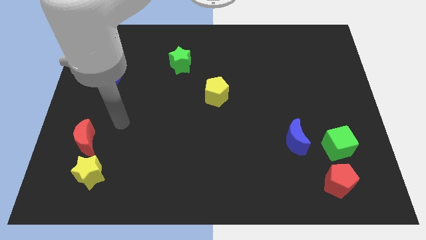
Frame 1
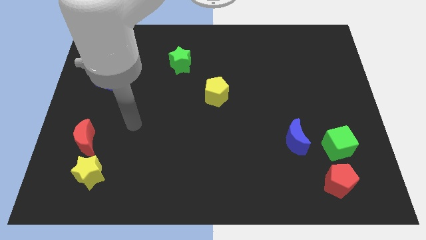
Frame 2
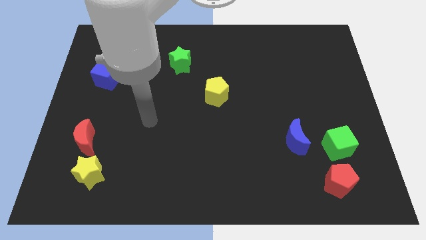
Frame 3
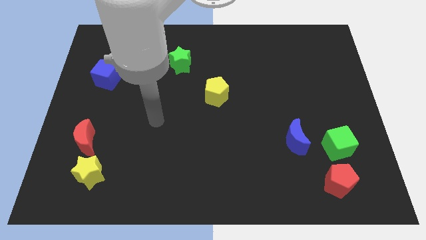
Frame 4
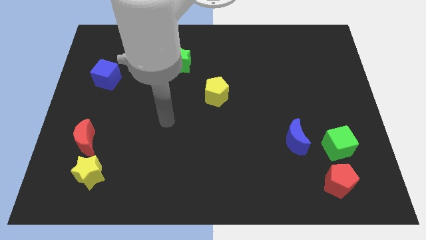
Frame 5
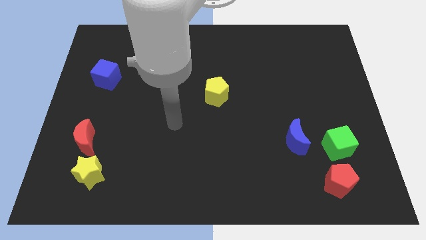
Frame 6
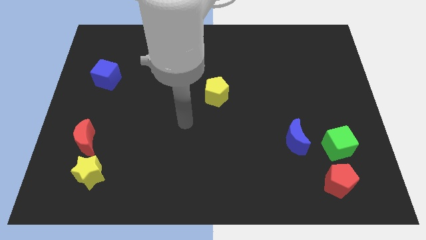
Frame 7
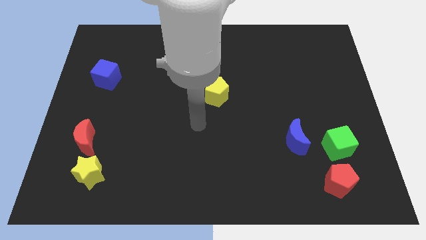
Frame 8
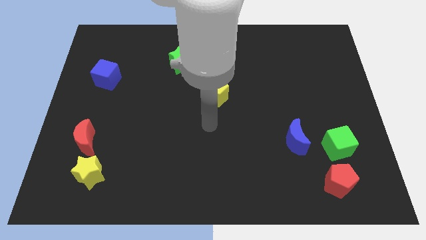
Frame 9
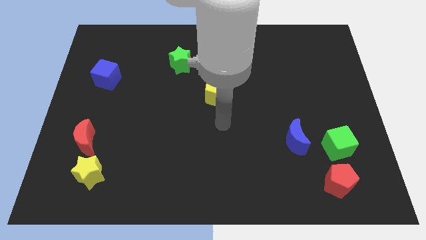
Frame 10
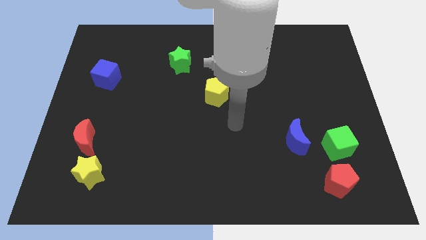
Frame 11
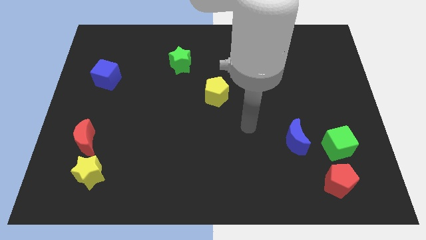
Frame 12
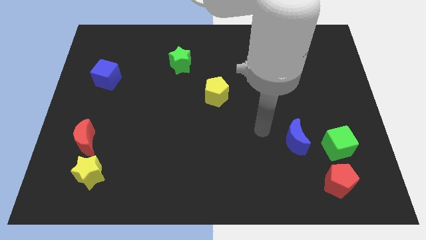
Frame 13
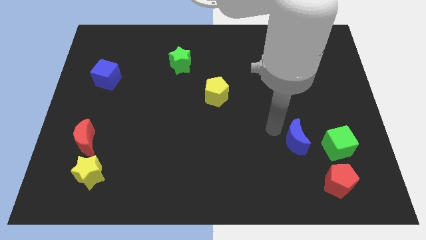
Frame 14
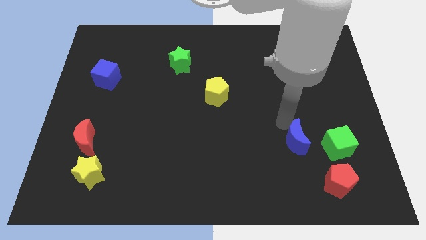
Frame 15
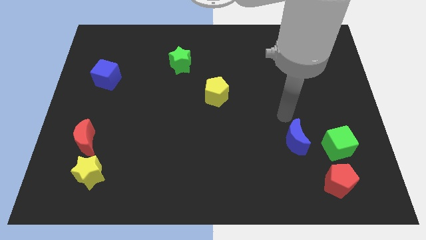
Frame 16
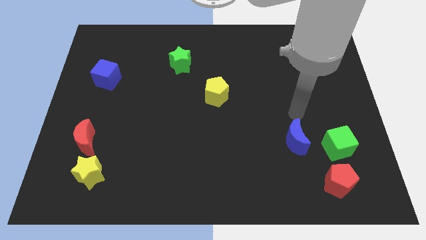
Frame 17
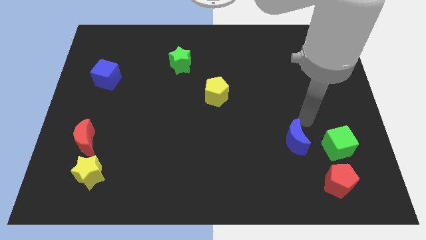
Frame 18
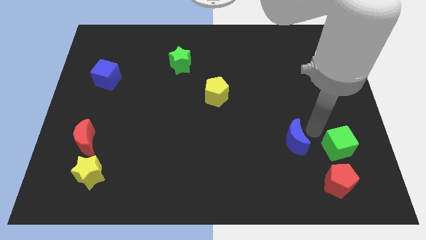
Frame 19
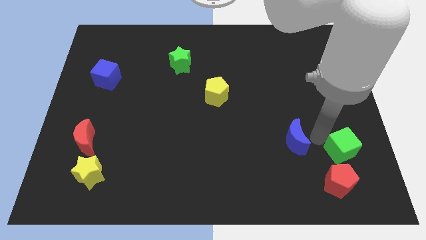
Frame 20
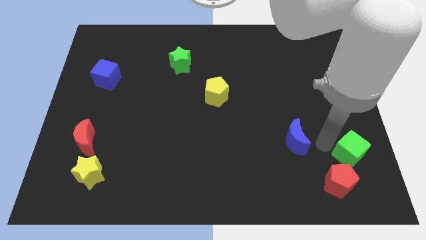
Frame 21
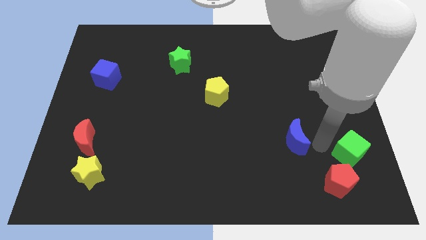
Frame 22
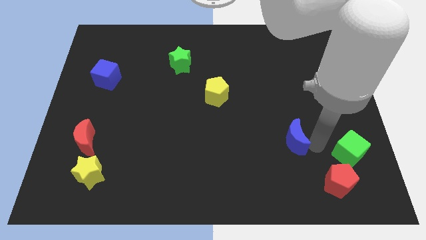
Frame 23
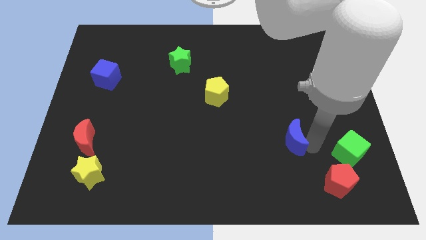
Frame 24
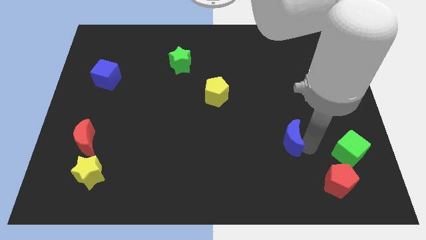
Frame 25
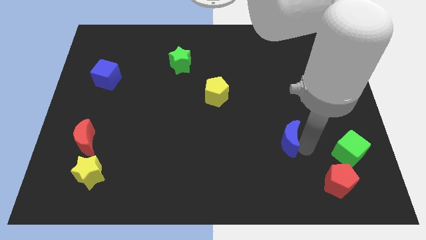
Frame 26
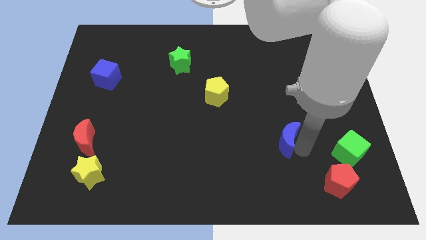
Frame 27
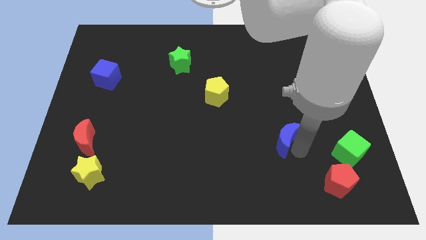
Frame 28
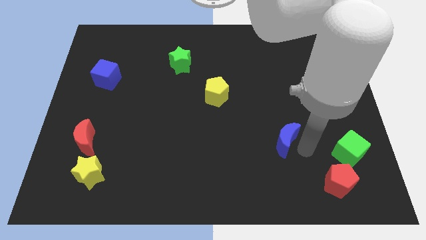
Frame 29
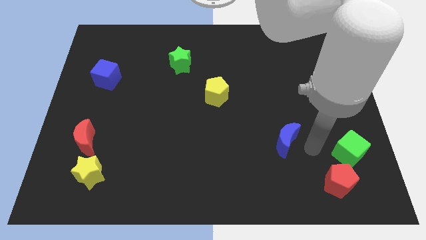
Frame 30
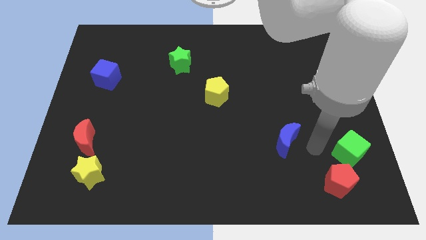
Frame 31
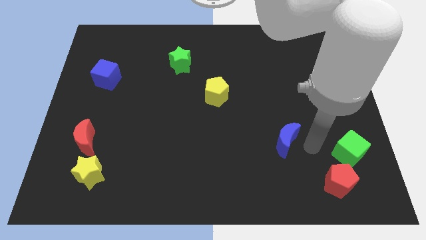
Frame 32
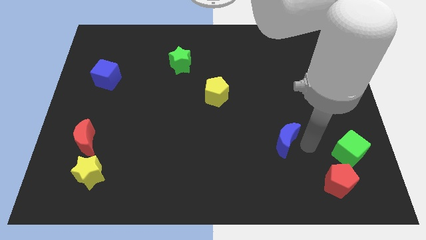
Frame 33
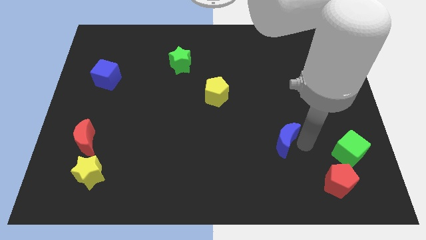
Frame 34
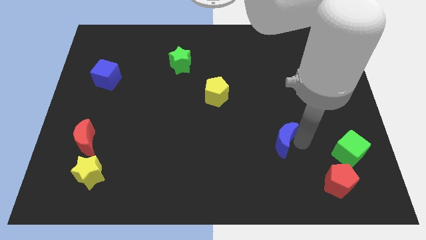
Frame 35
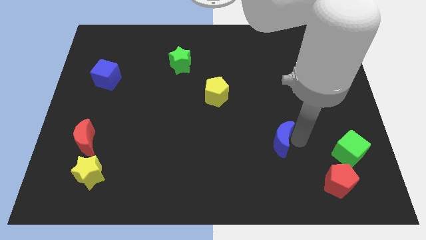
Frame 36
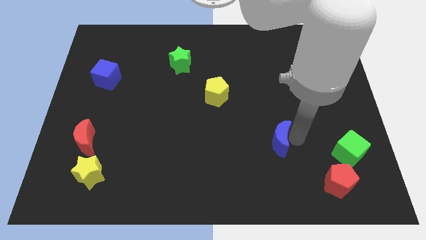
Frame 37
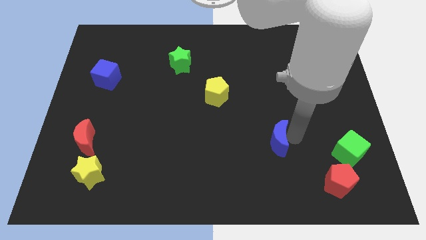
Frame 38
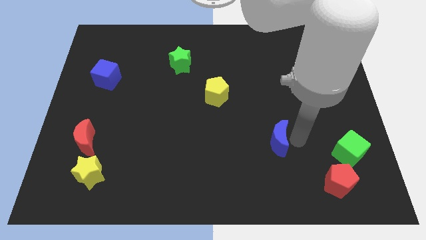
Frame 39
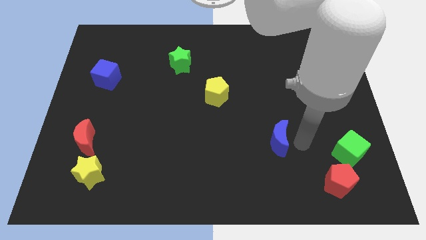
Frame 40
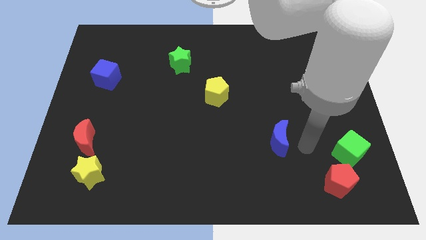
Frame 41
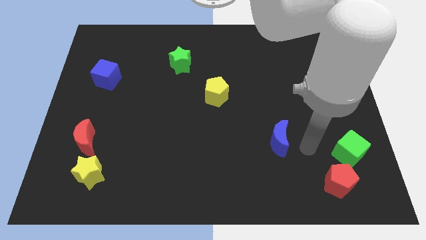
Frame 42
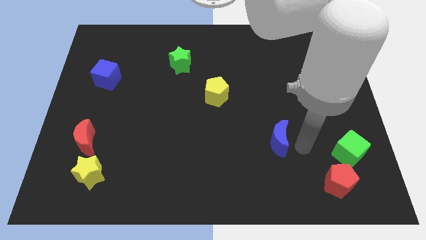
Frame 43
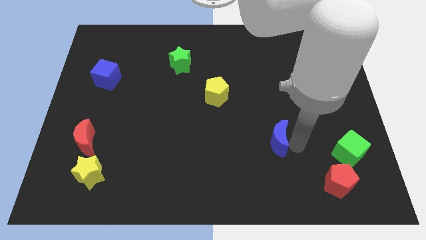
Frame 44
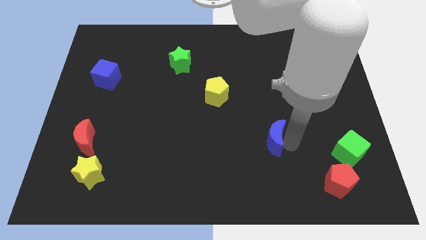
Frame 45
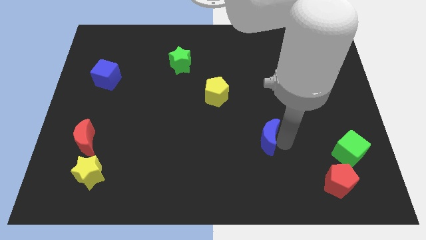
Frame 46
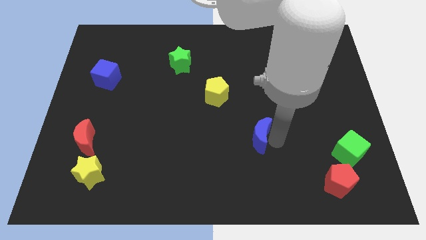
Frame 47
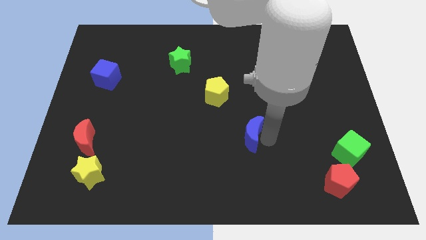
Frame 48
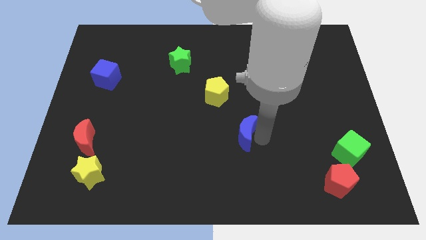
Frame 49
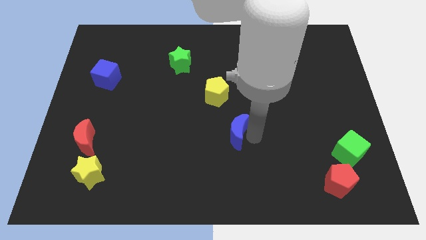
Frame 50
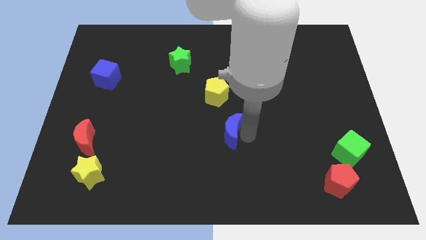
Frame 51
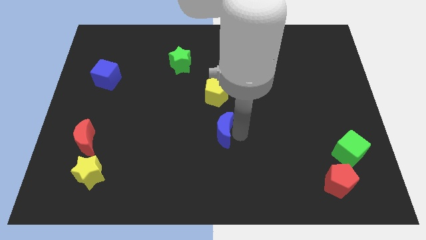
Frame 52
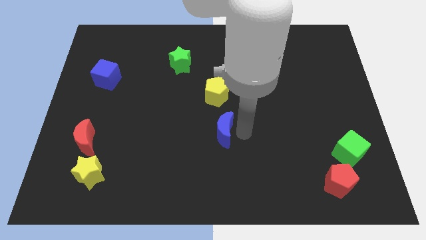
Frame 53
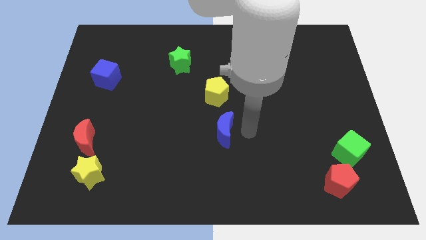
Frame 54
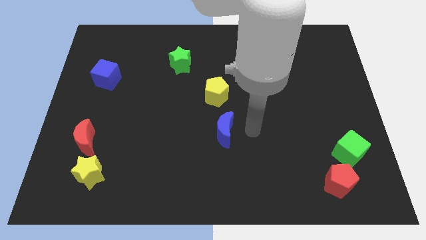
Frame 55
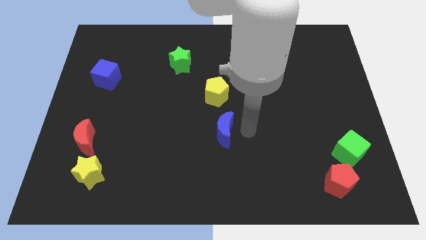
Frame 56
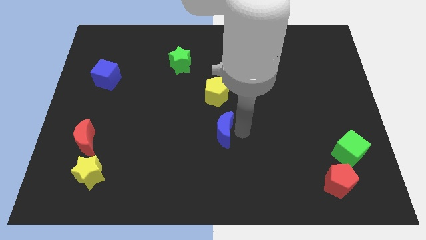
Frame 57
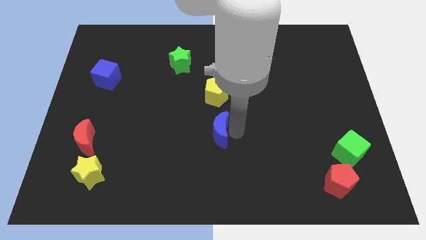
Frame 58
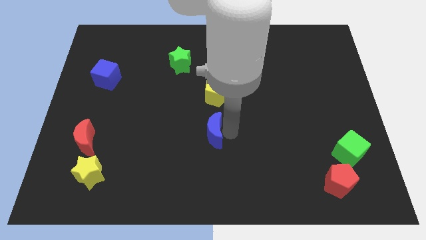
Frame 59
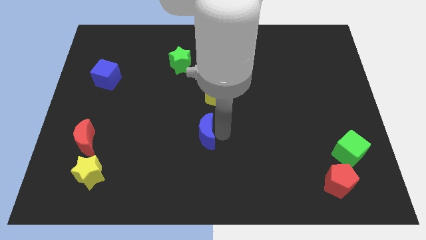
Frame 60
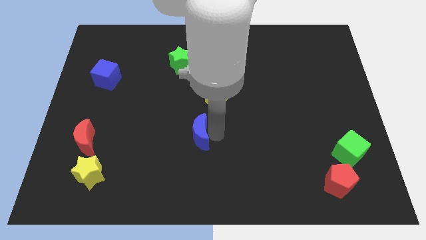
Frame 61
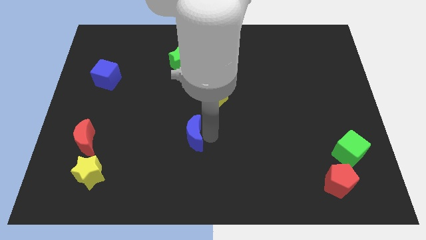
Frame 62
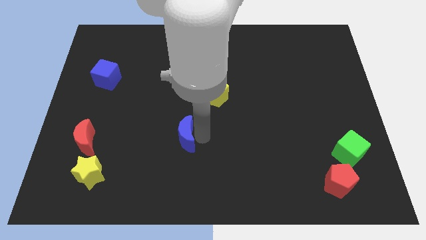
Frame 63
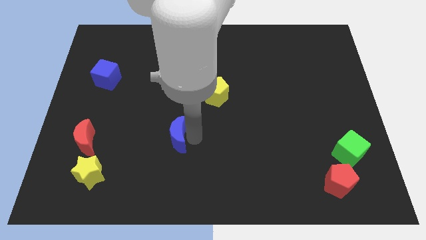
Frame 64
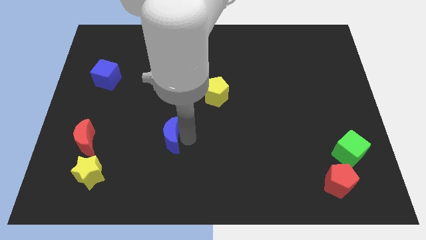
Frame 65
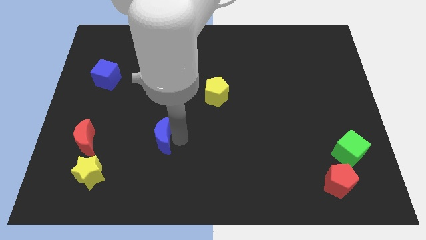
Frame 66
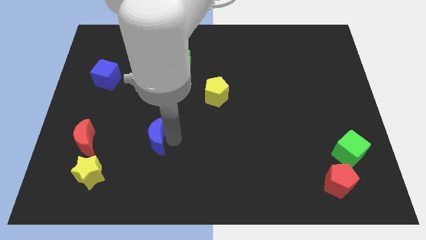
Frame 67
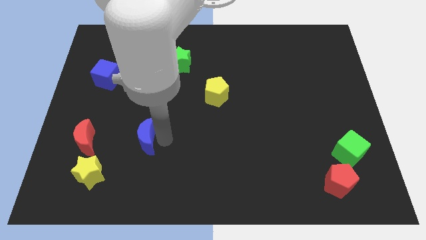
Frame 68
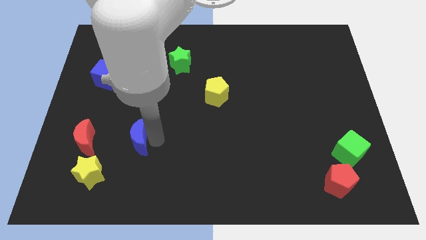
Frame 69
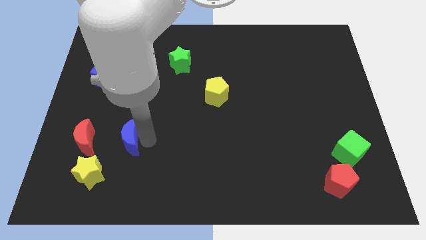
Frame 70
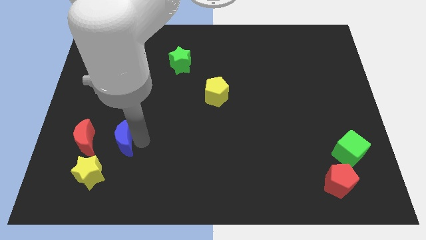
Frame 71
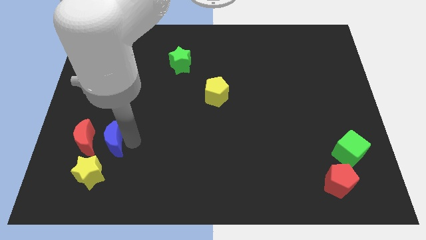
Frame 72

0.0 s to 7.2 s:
slide the blue moon to the red moon
